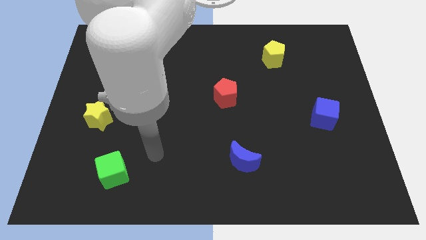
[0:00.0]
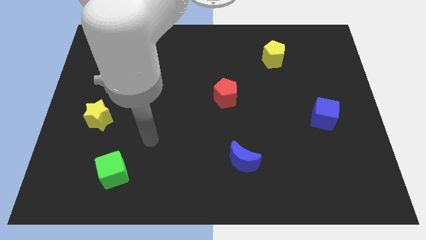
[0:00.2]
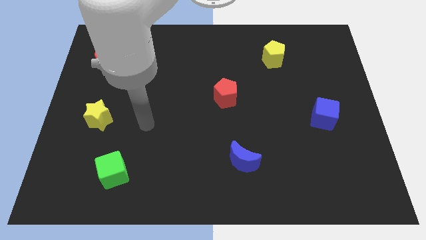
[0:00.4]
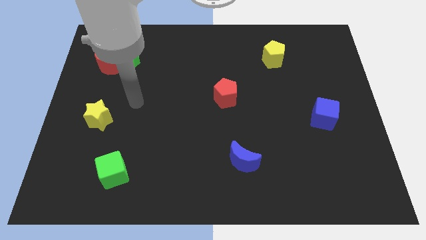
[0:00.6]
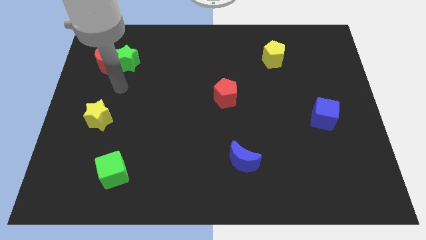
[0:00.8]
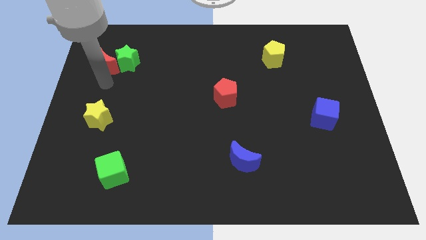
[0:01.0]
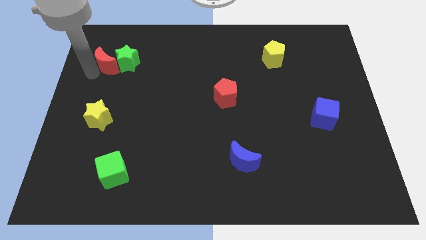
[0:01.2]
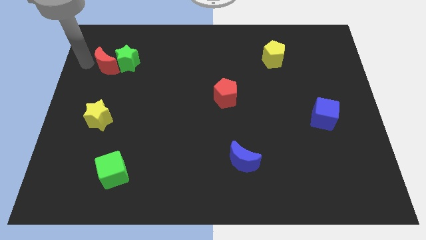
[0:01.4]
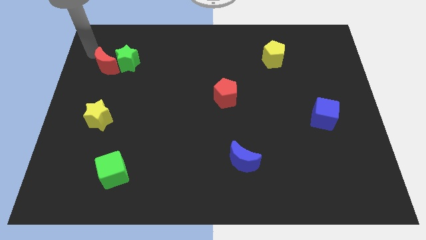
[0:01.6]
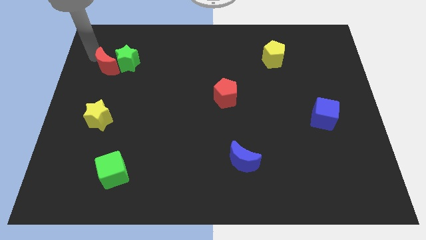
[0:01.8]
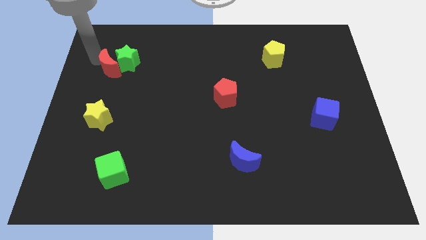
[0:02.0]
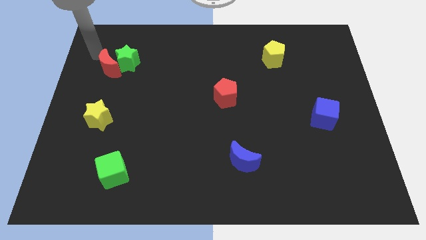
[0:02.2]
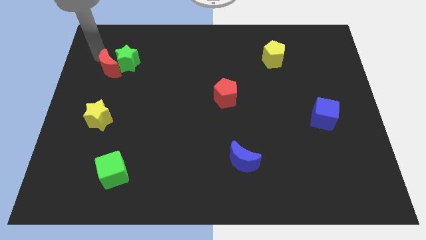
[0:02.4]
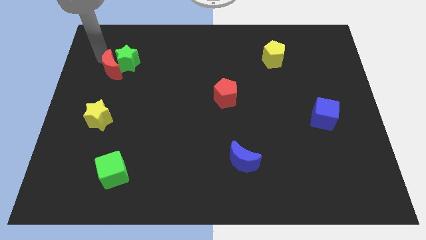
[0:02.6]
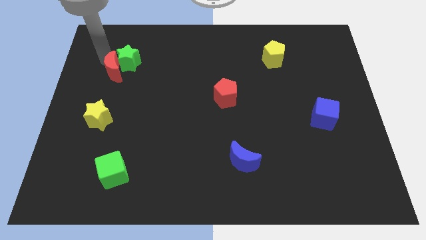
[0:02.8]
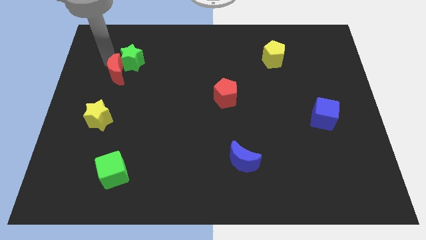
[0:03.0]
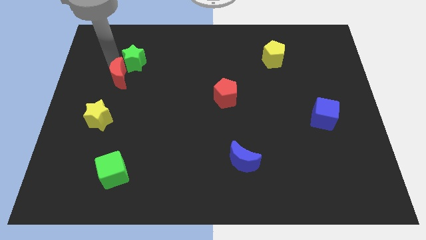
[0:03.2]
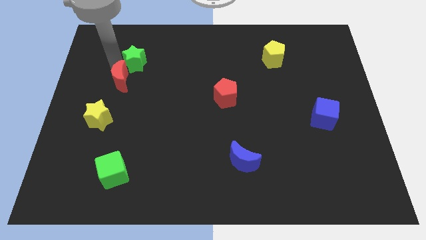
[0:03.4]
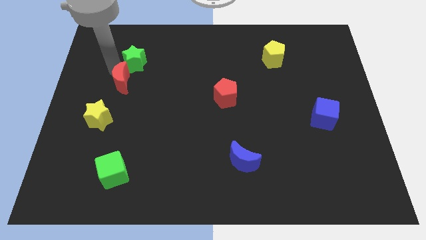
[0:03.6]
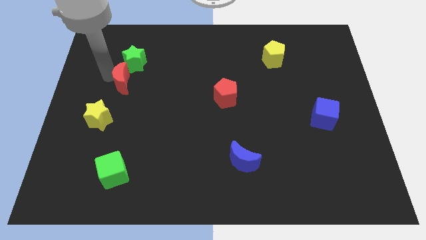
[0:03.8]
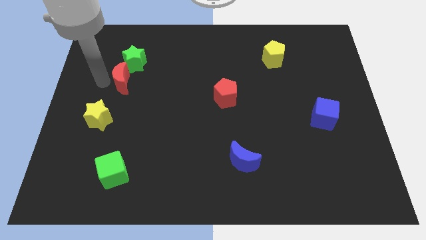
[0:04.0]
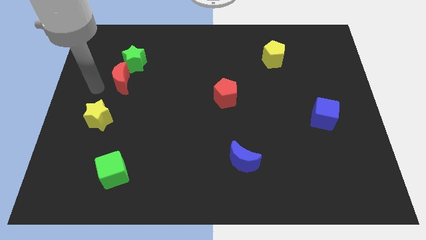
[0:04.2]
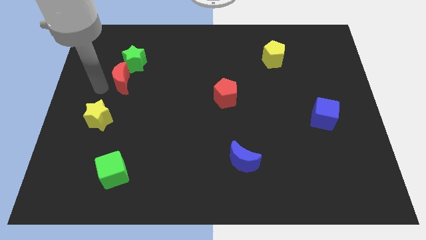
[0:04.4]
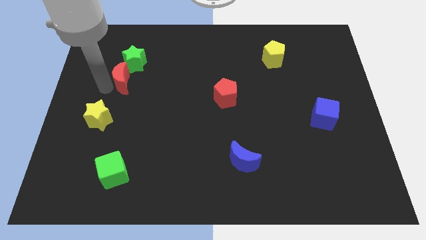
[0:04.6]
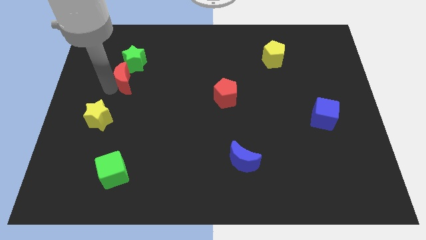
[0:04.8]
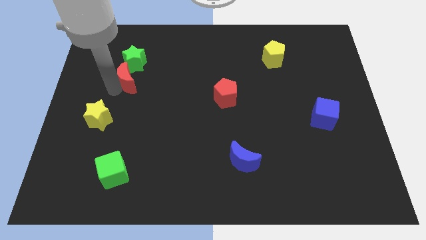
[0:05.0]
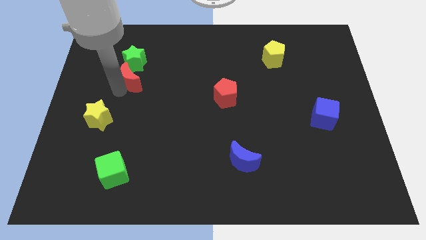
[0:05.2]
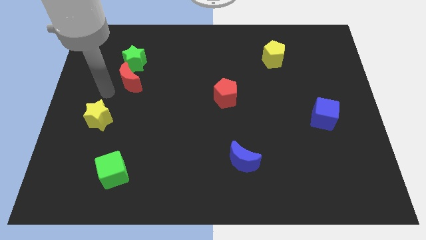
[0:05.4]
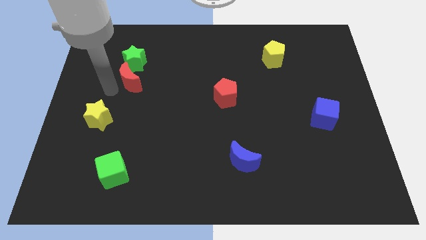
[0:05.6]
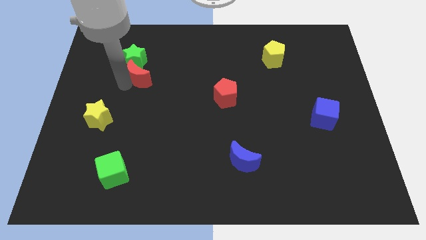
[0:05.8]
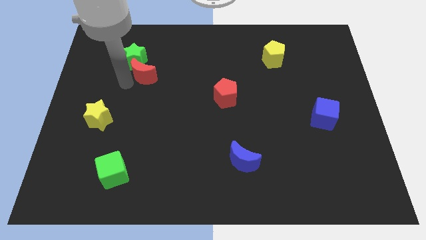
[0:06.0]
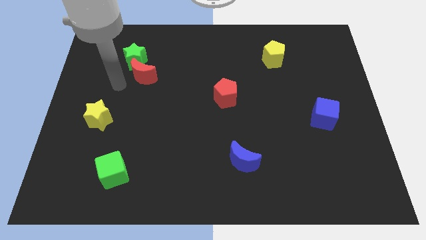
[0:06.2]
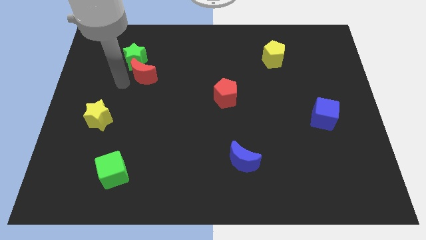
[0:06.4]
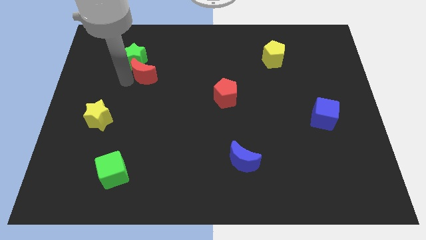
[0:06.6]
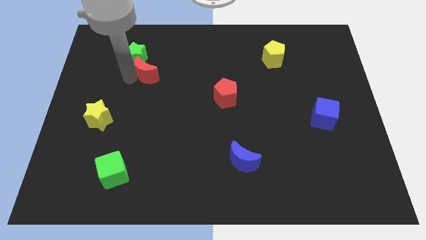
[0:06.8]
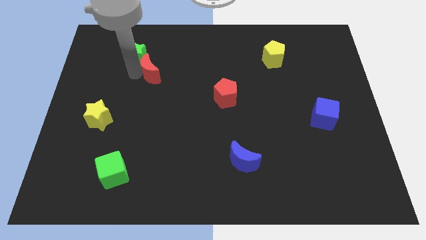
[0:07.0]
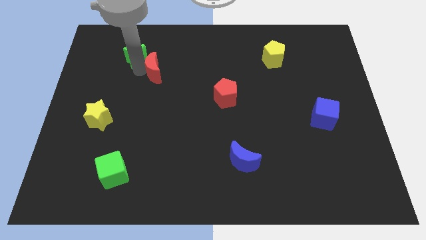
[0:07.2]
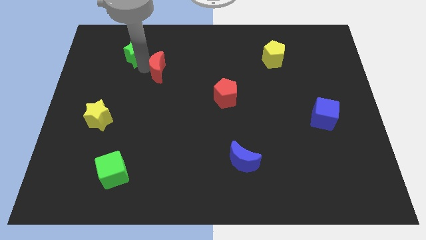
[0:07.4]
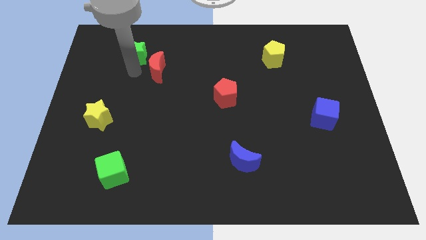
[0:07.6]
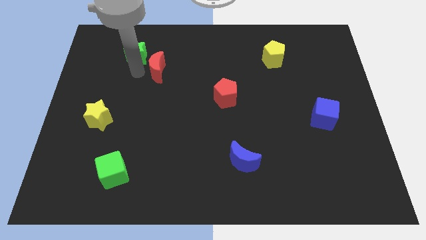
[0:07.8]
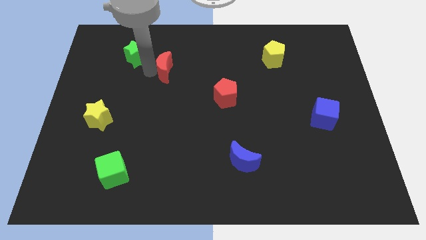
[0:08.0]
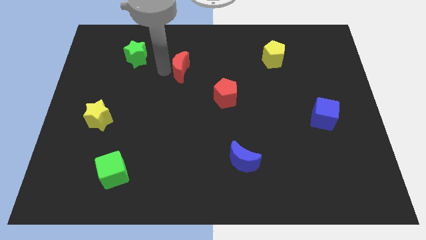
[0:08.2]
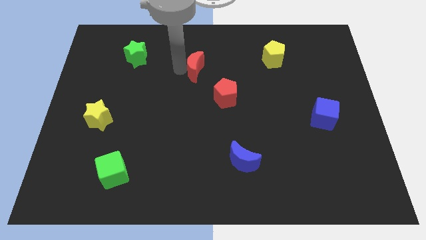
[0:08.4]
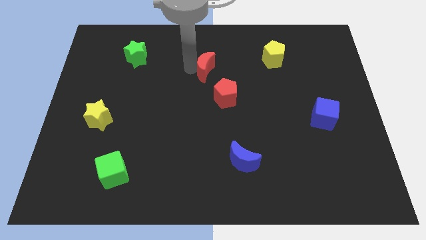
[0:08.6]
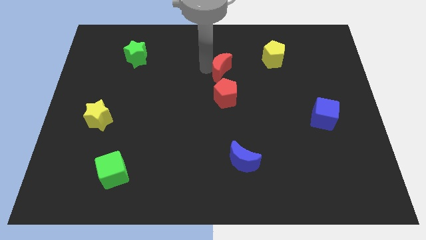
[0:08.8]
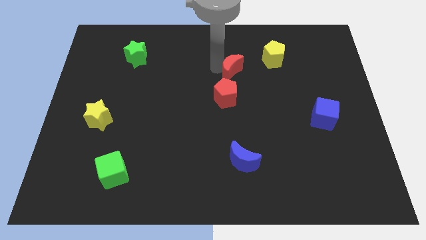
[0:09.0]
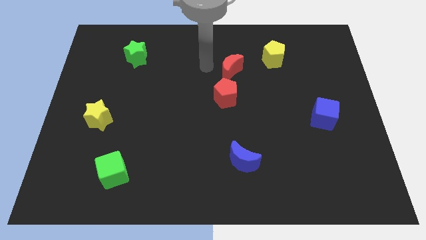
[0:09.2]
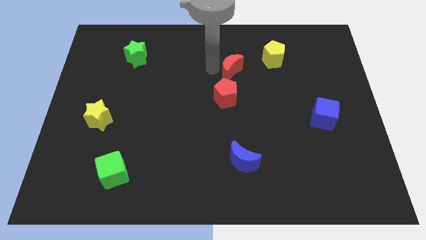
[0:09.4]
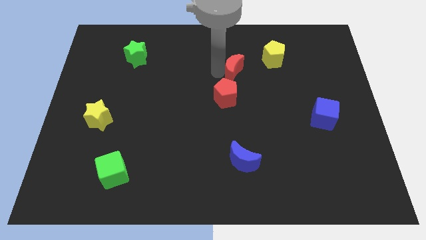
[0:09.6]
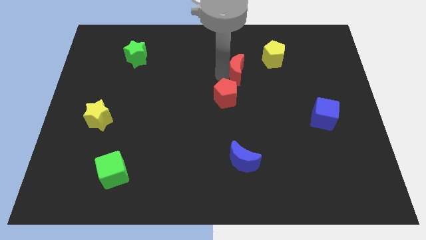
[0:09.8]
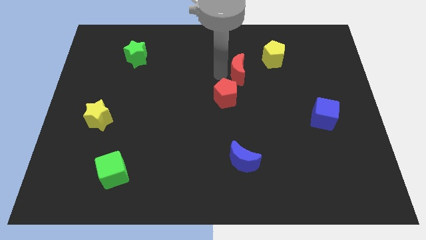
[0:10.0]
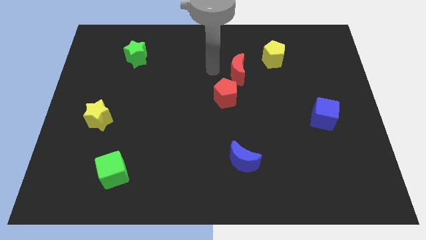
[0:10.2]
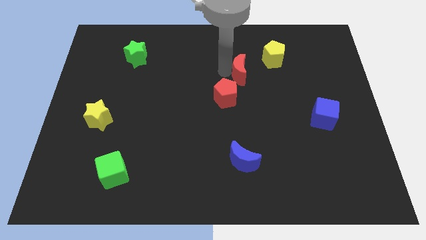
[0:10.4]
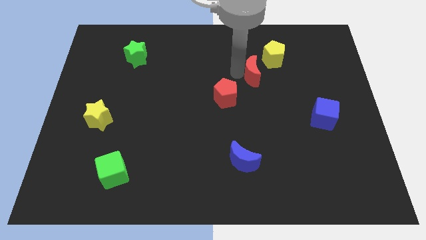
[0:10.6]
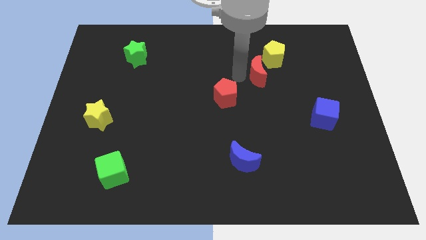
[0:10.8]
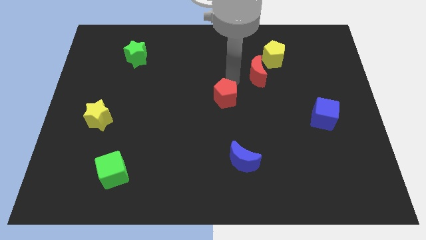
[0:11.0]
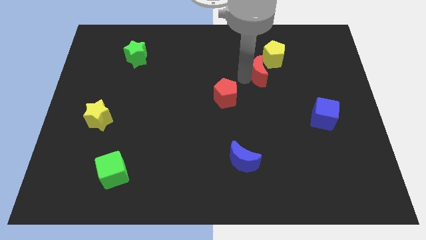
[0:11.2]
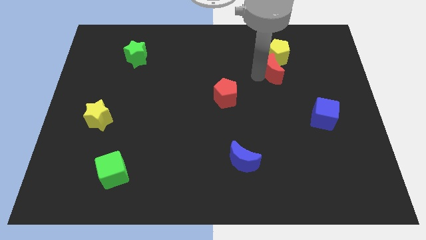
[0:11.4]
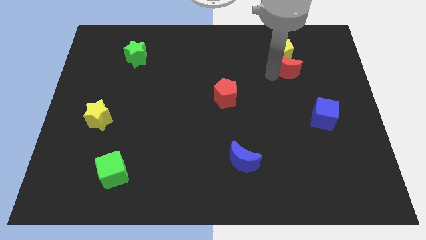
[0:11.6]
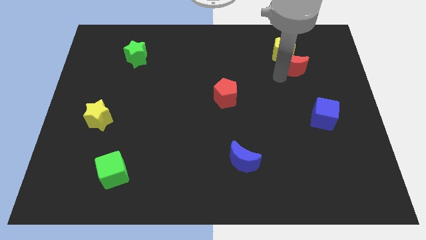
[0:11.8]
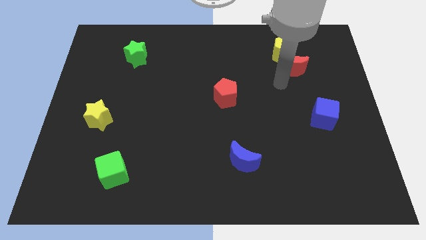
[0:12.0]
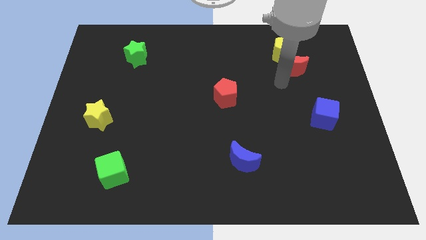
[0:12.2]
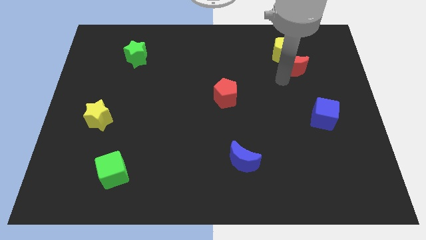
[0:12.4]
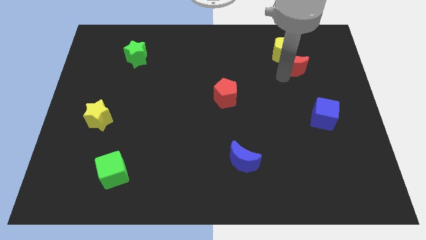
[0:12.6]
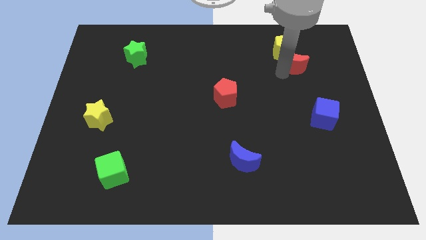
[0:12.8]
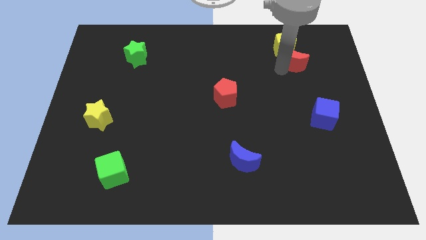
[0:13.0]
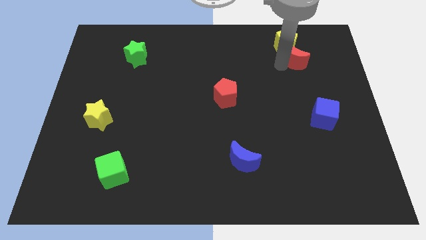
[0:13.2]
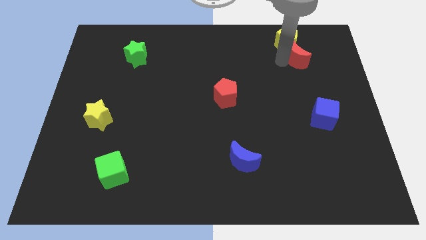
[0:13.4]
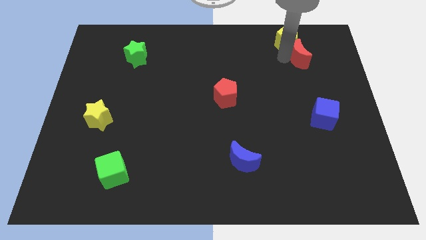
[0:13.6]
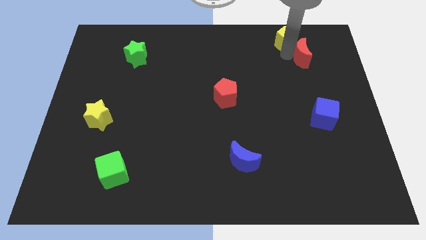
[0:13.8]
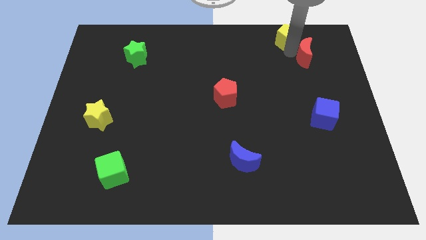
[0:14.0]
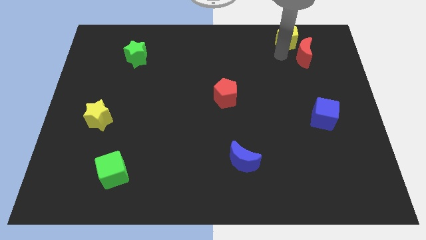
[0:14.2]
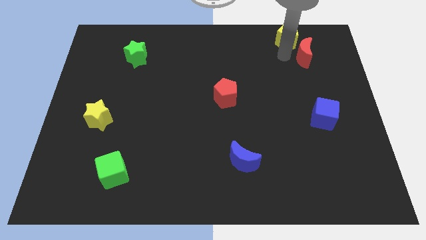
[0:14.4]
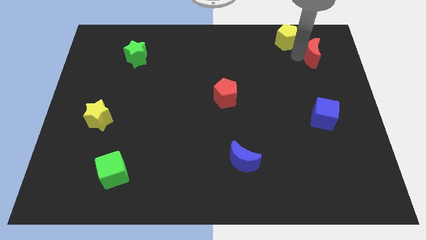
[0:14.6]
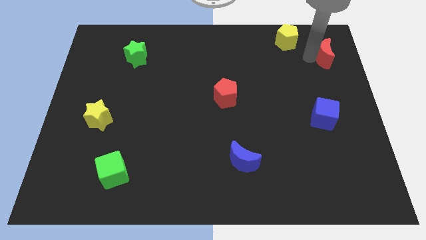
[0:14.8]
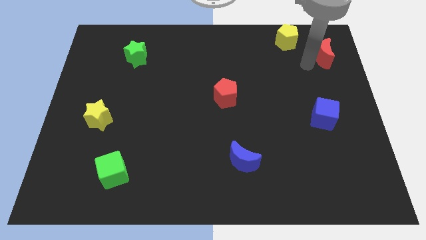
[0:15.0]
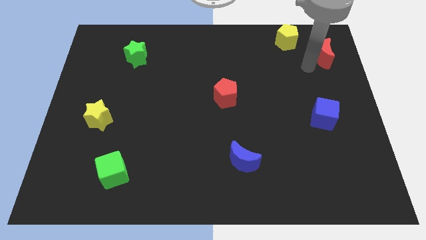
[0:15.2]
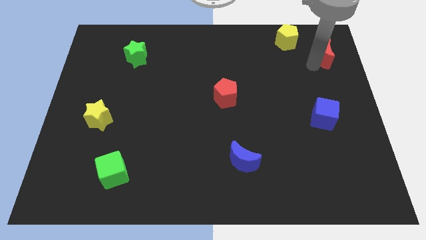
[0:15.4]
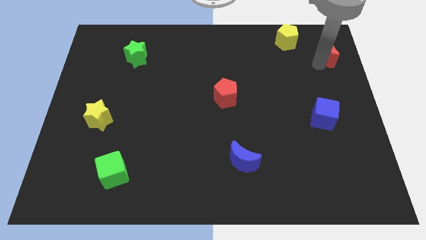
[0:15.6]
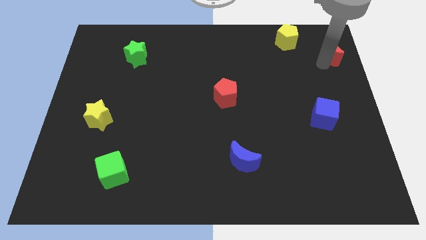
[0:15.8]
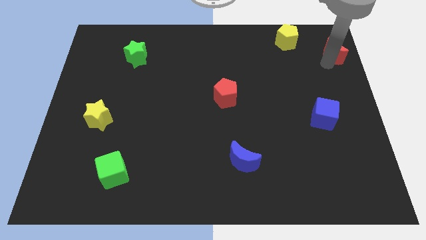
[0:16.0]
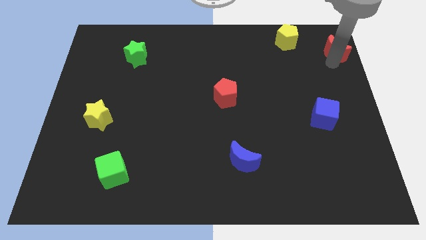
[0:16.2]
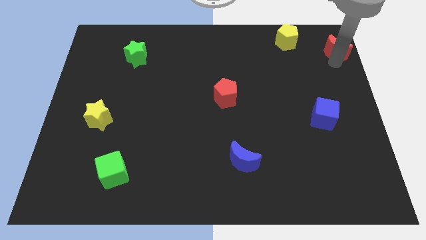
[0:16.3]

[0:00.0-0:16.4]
push the red moon to the top right corner
